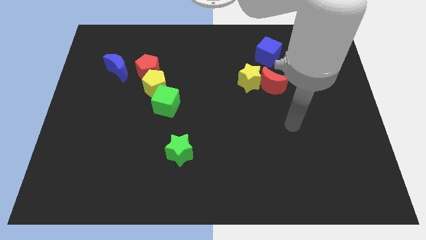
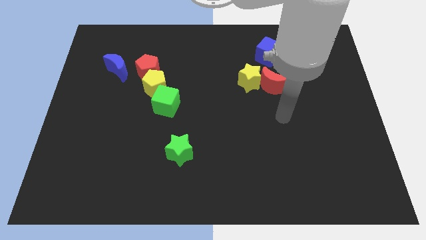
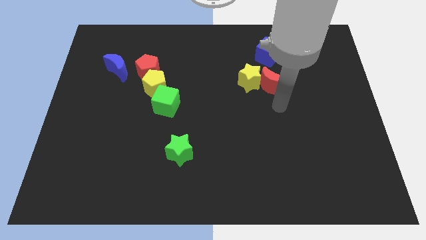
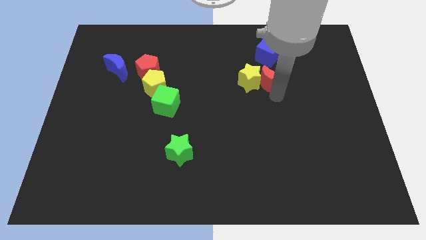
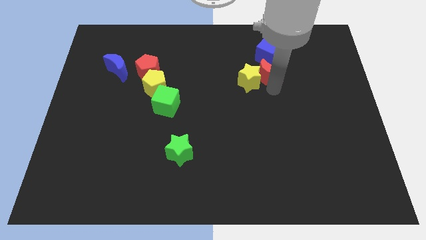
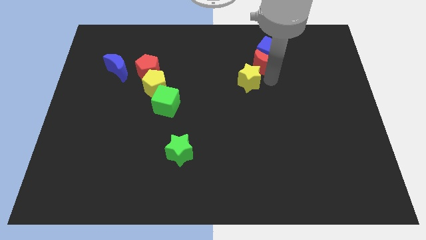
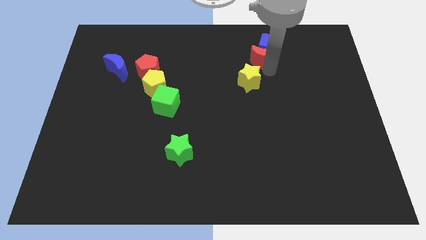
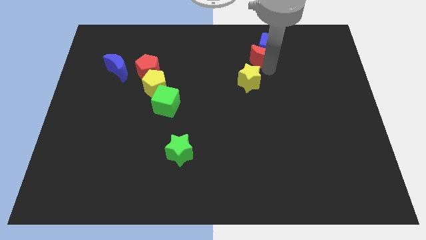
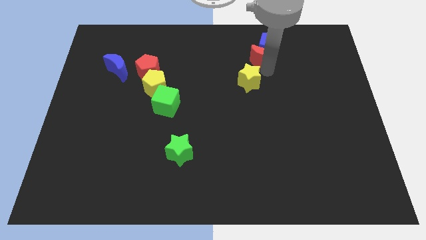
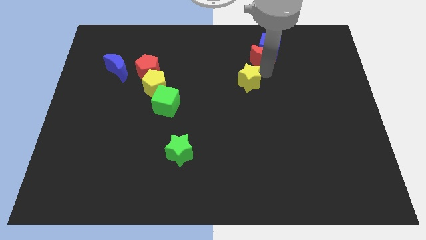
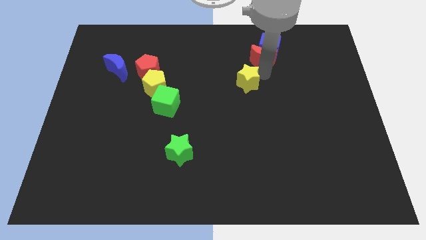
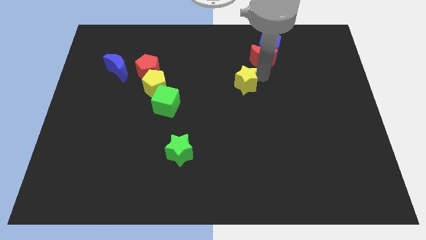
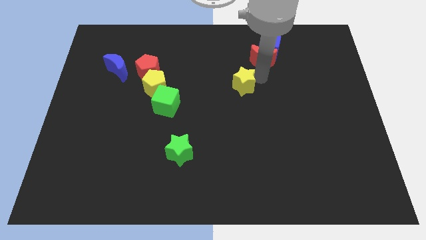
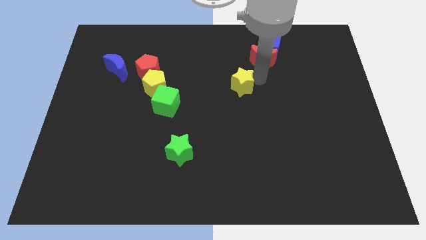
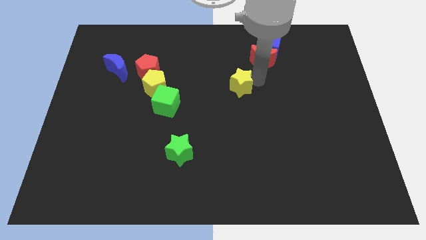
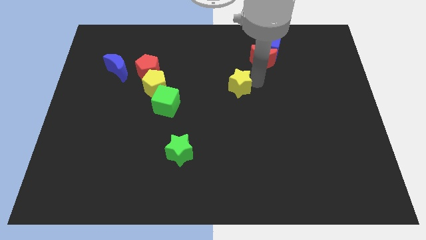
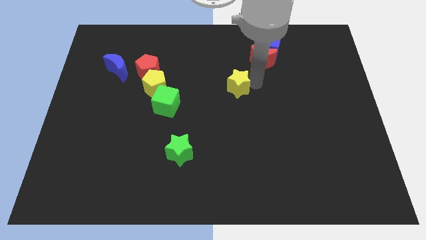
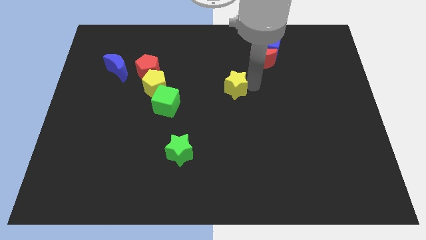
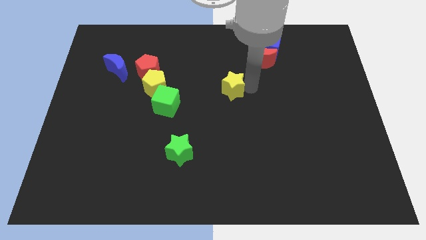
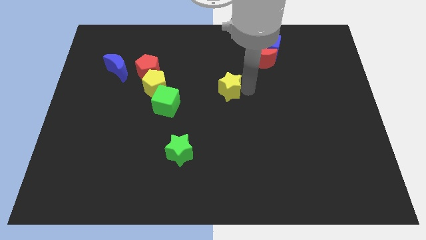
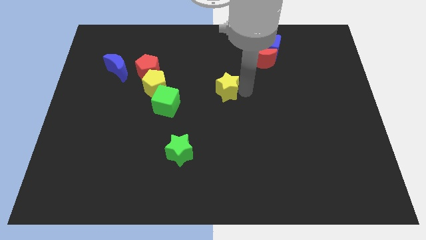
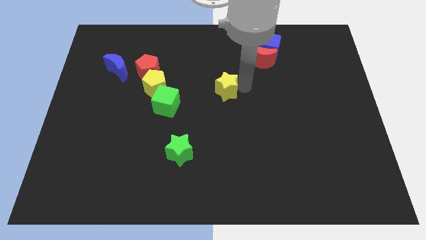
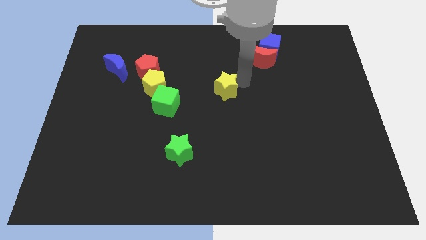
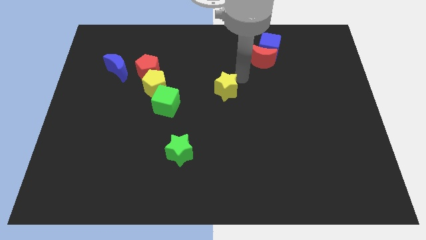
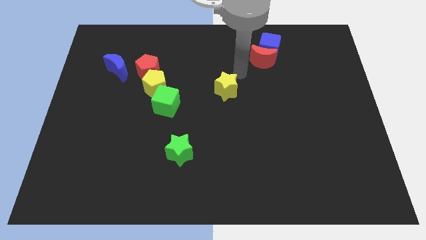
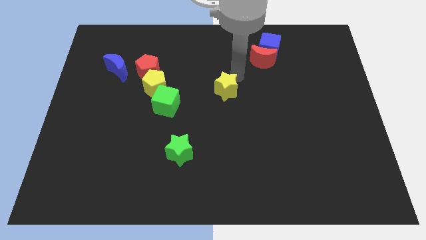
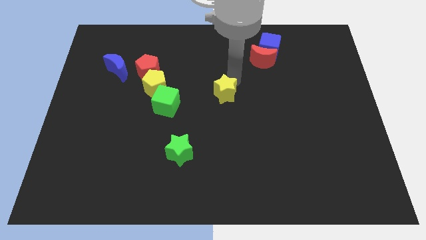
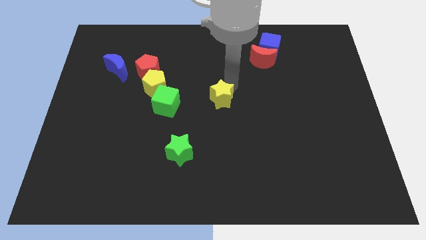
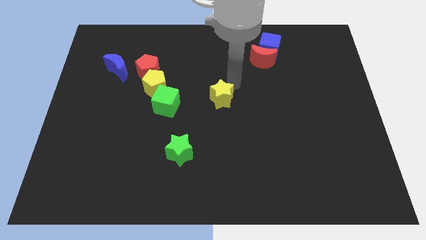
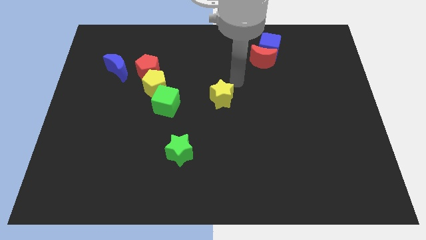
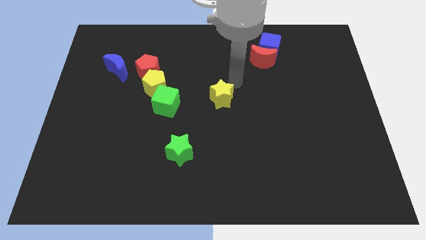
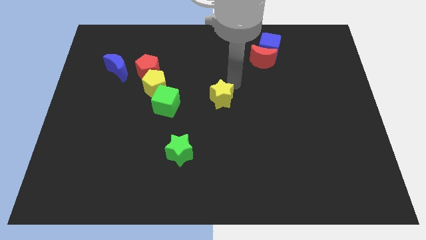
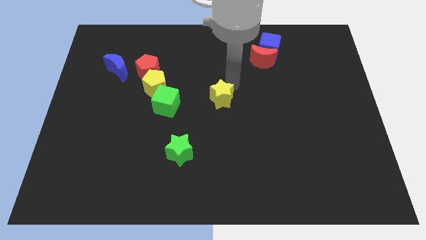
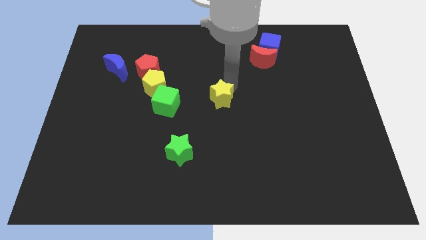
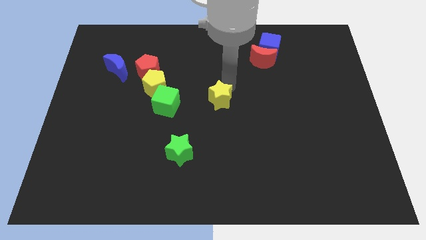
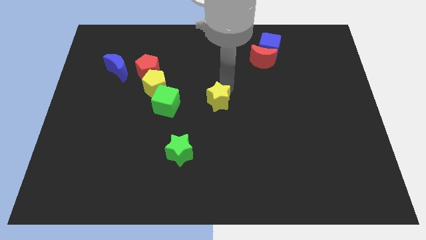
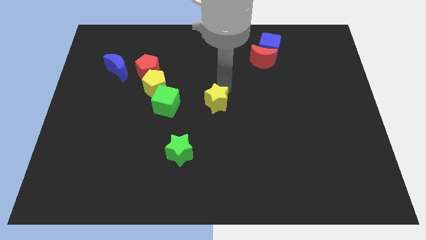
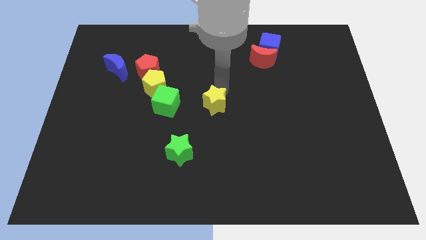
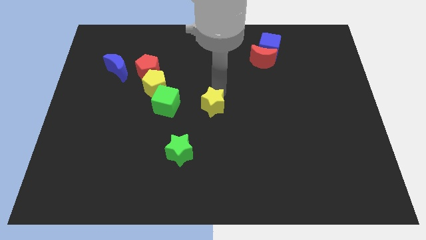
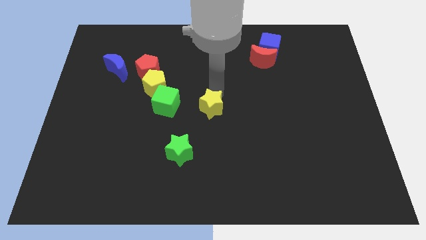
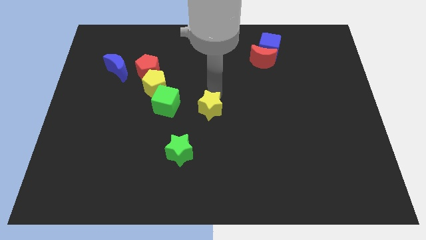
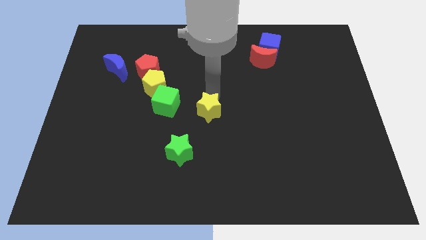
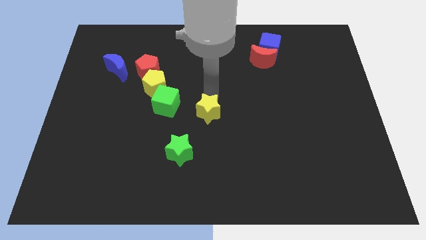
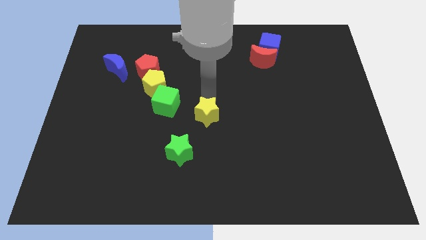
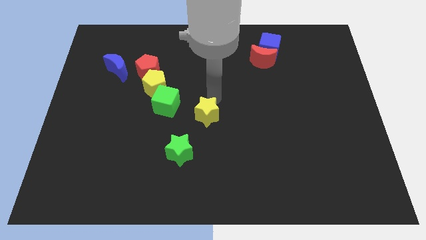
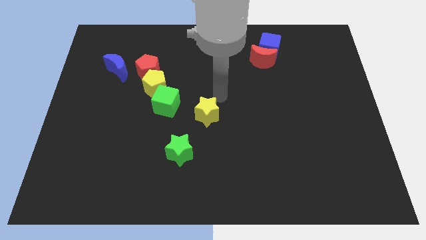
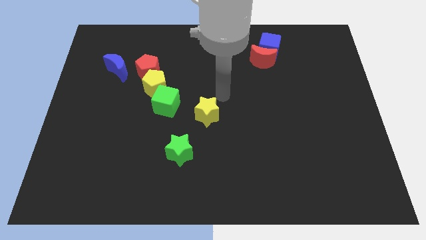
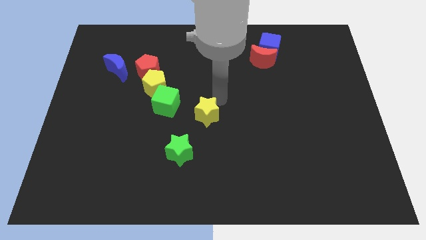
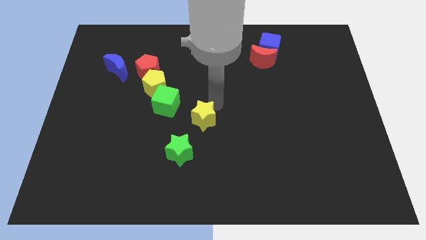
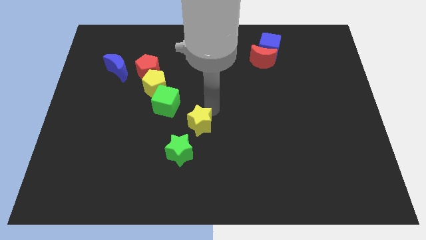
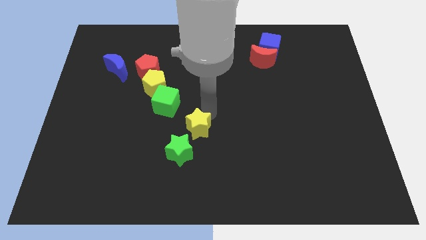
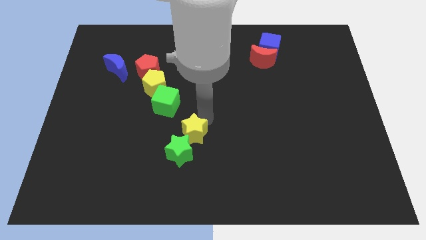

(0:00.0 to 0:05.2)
move the yellow star towards the green star

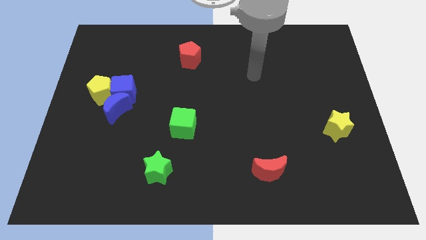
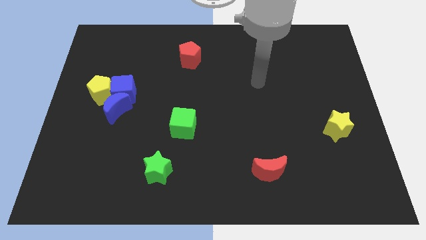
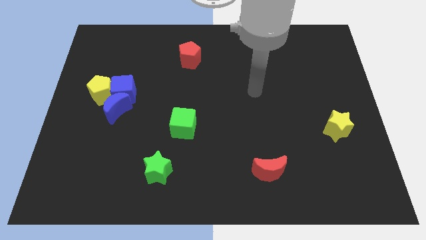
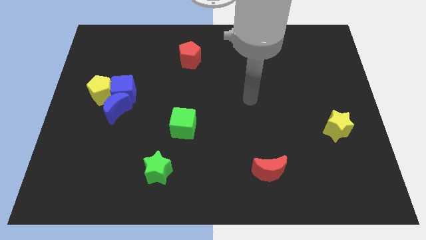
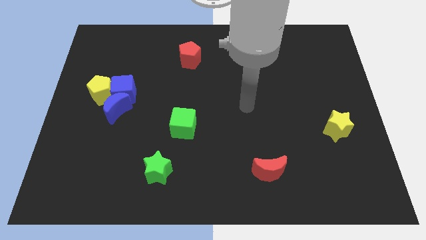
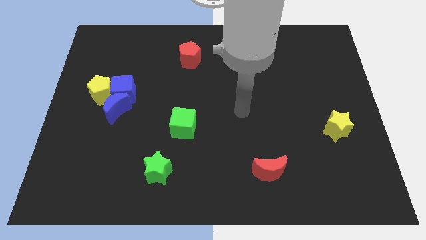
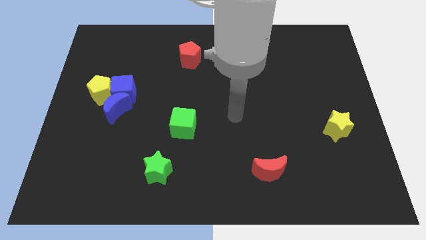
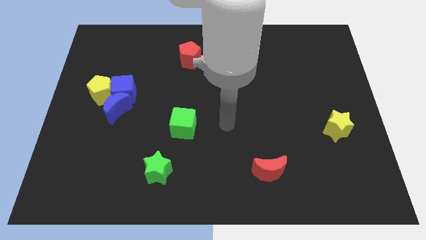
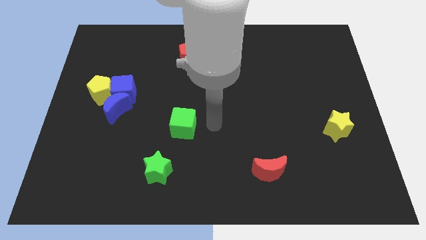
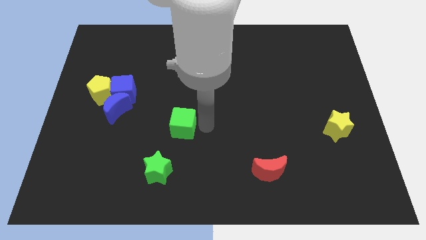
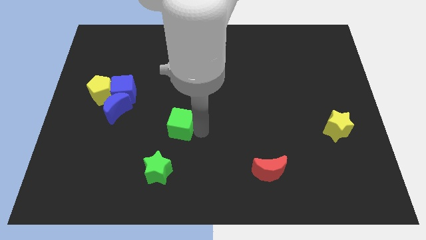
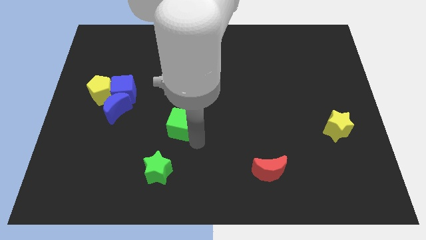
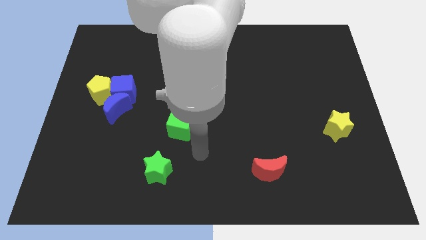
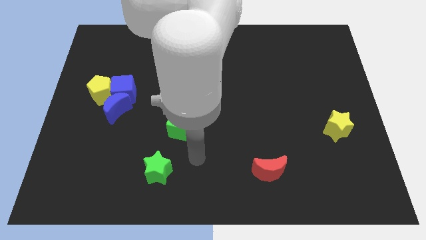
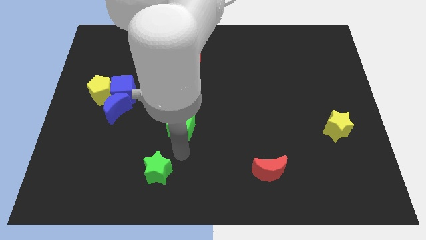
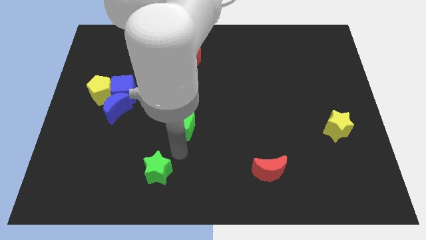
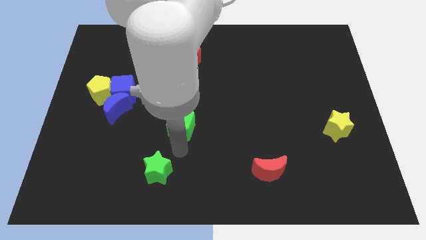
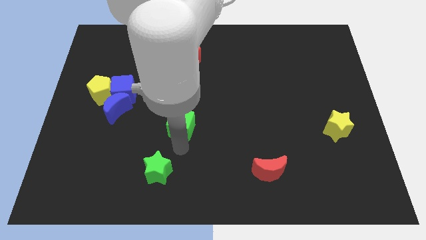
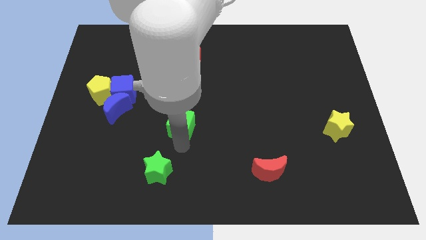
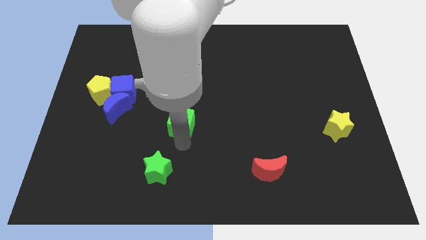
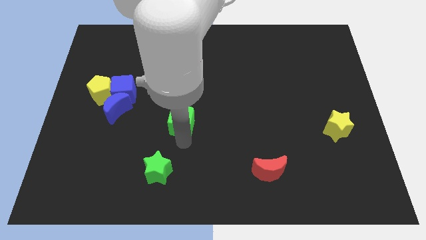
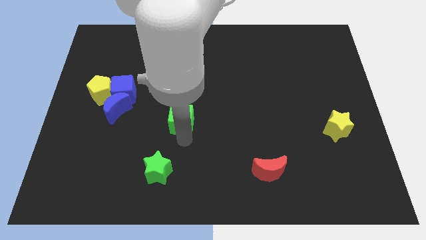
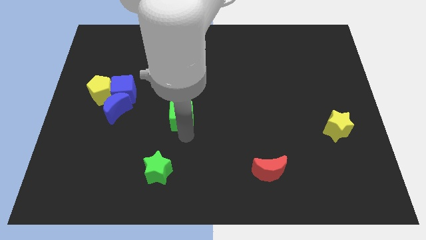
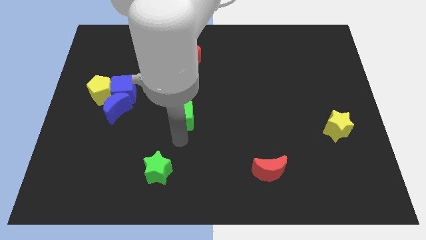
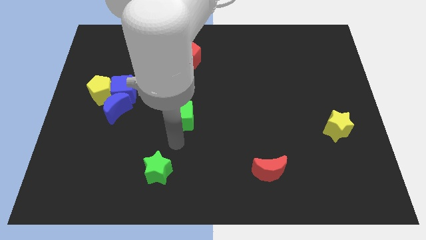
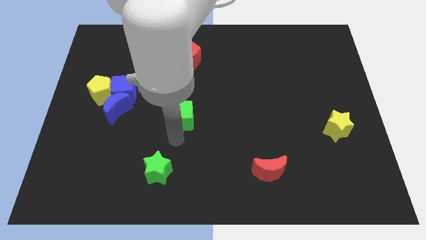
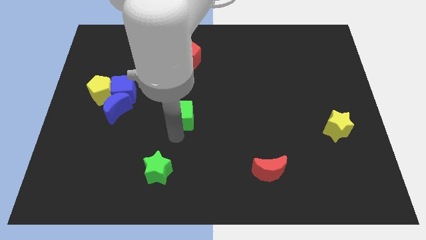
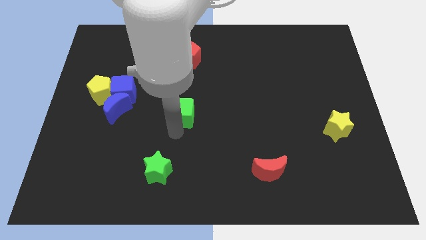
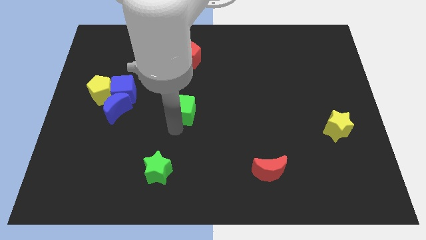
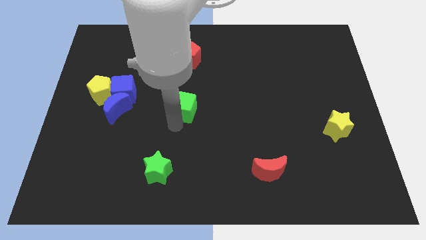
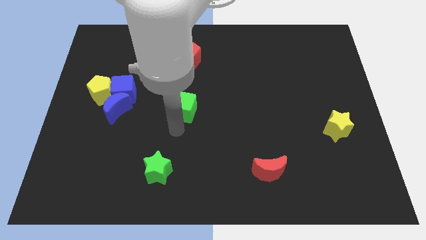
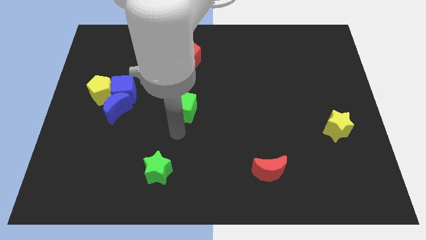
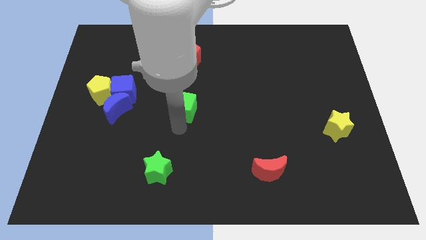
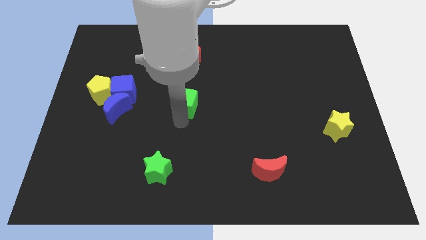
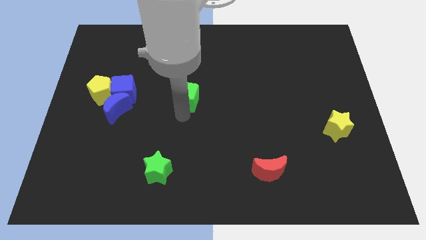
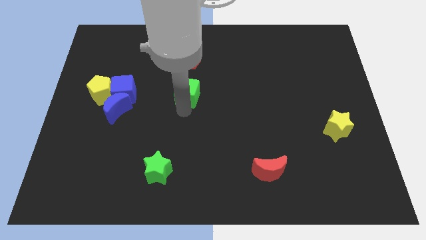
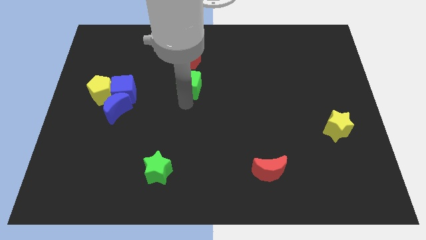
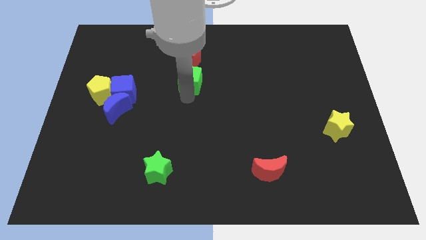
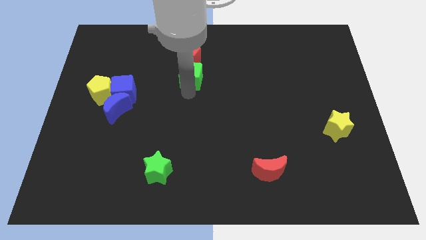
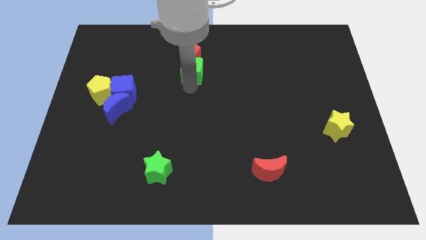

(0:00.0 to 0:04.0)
move the green cube next to the red pentagon
